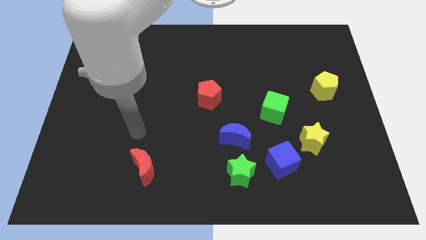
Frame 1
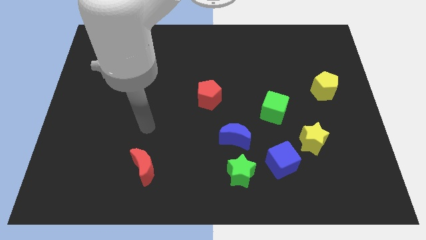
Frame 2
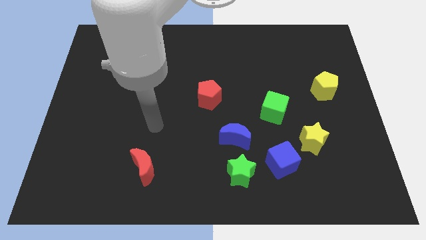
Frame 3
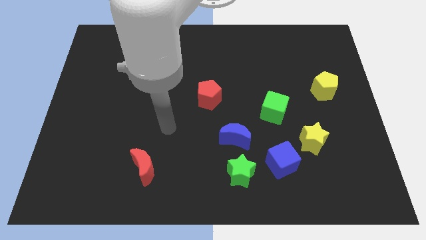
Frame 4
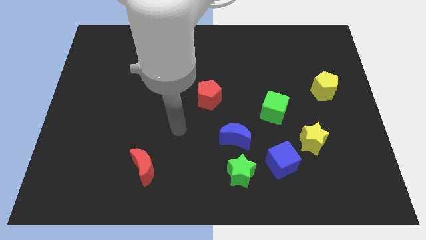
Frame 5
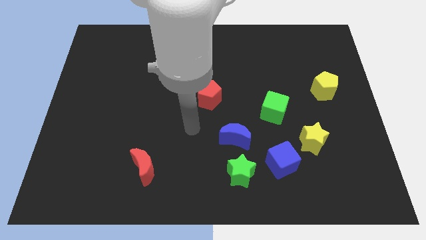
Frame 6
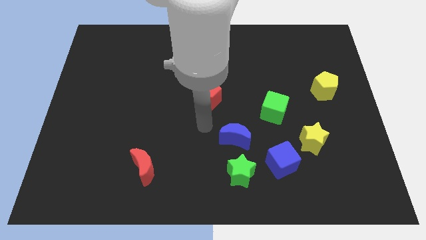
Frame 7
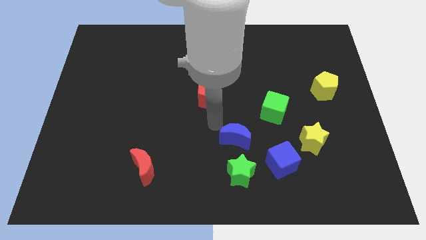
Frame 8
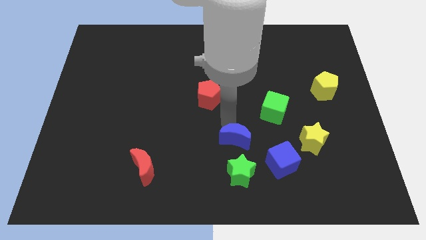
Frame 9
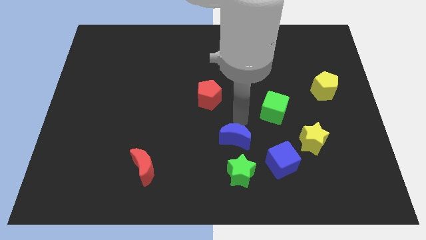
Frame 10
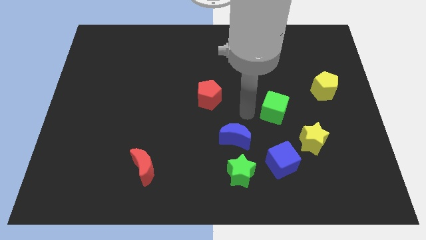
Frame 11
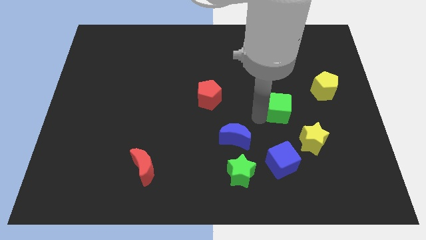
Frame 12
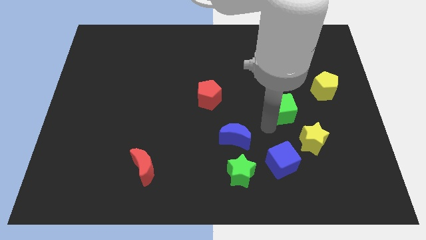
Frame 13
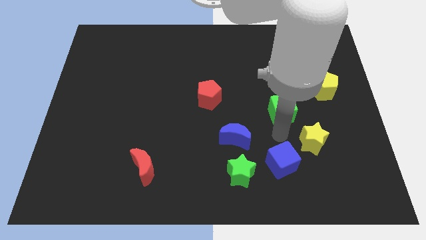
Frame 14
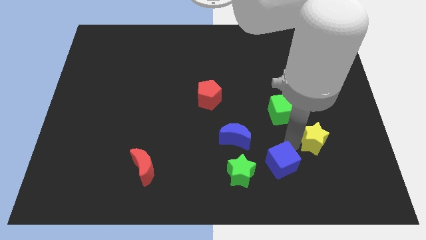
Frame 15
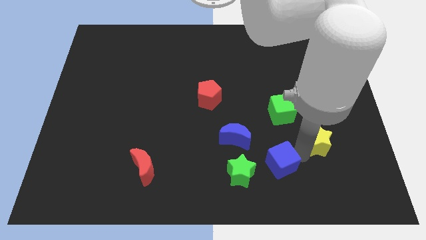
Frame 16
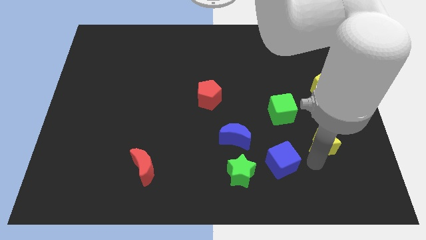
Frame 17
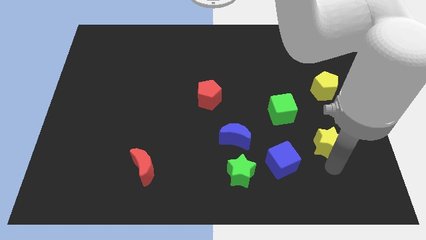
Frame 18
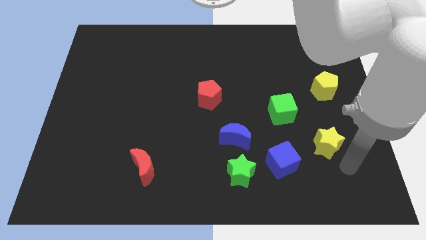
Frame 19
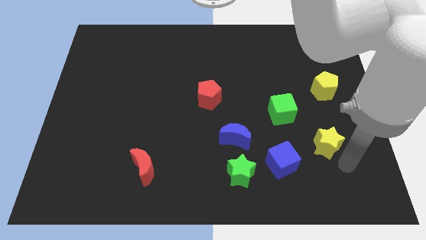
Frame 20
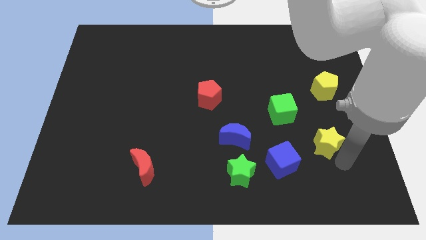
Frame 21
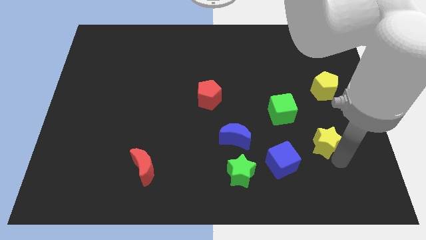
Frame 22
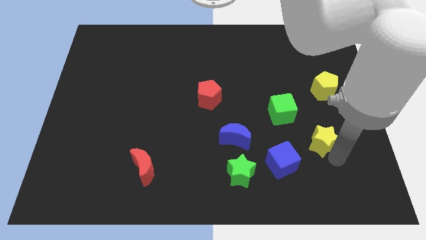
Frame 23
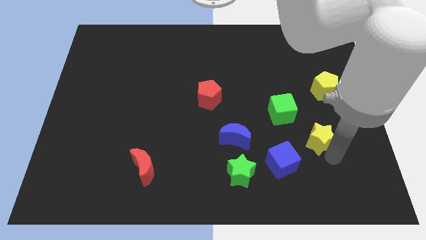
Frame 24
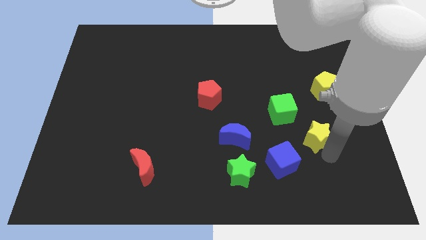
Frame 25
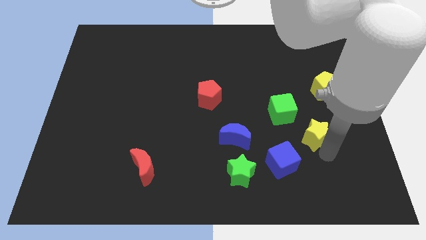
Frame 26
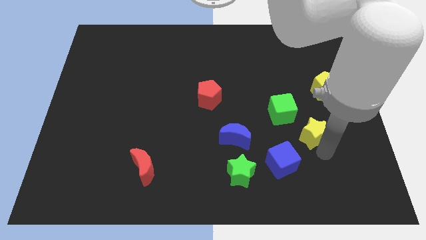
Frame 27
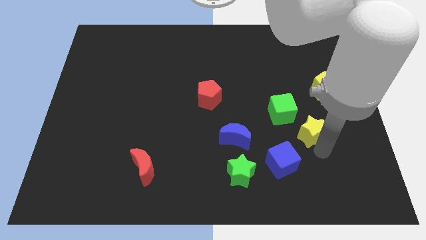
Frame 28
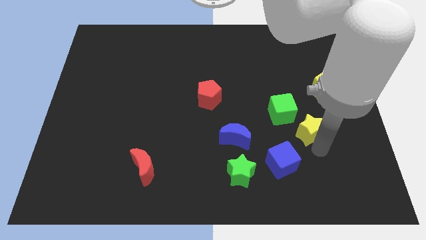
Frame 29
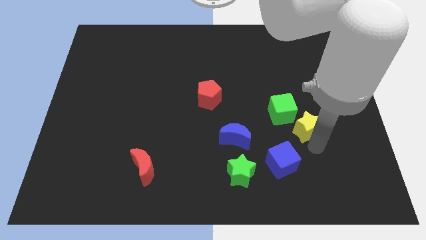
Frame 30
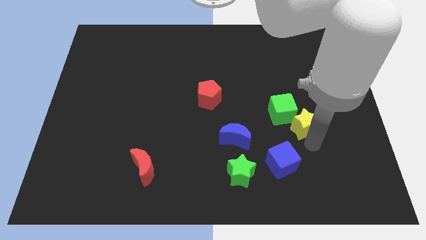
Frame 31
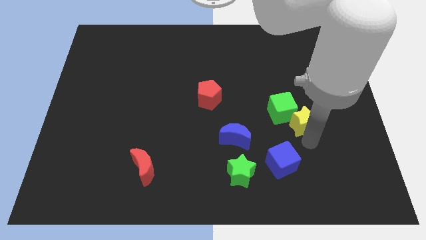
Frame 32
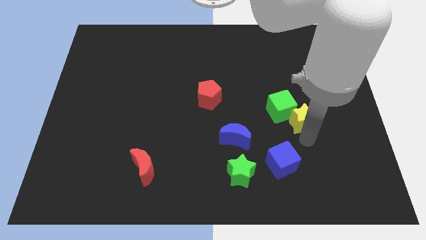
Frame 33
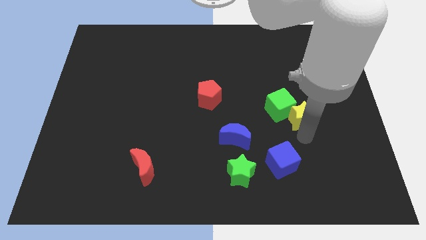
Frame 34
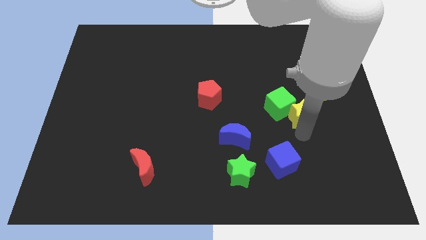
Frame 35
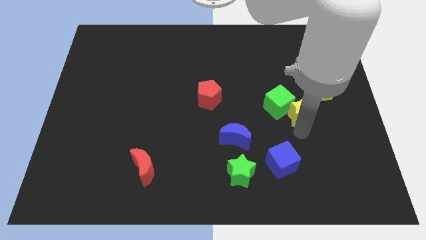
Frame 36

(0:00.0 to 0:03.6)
push the yellow star up slightly

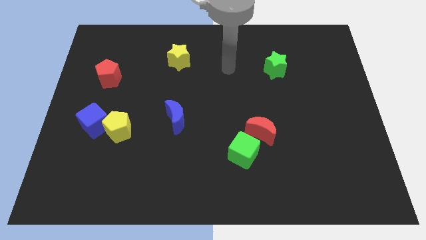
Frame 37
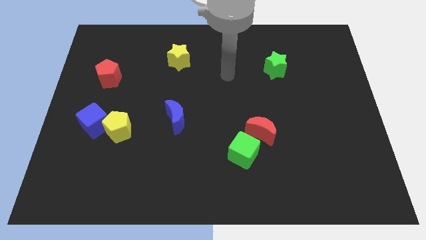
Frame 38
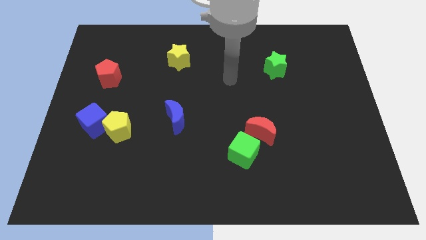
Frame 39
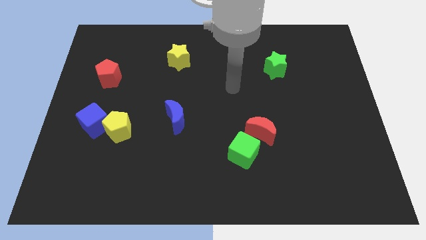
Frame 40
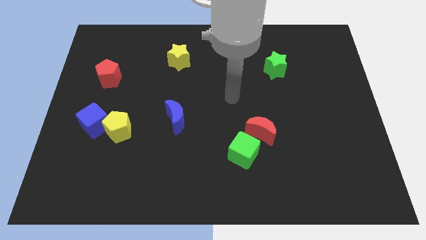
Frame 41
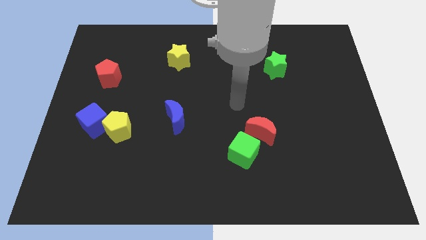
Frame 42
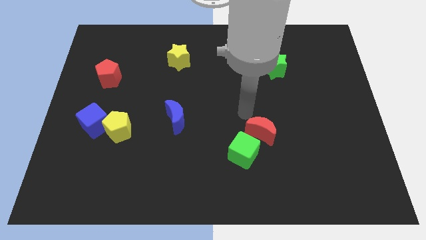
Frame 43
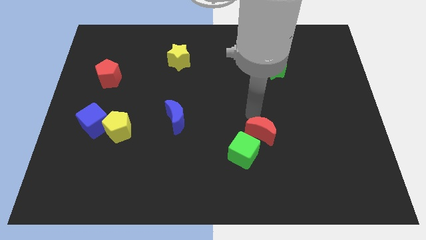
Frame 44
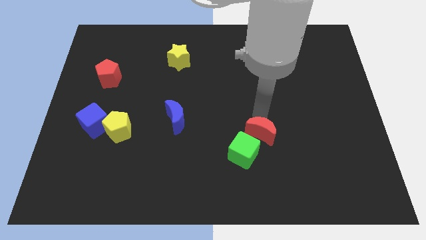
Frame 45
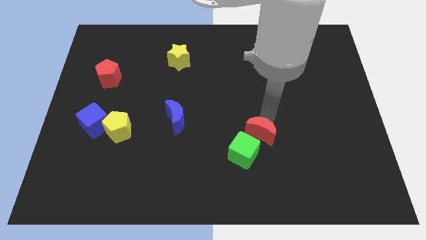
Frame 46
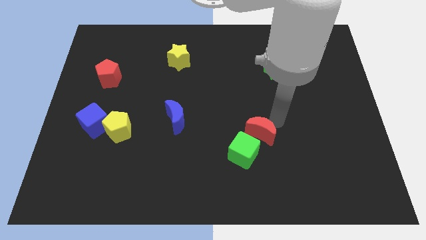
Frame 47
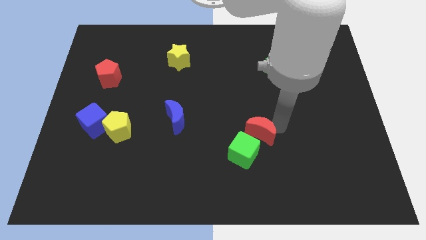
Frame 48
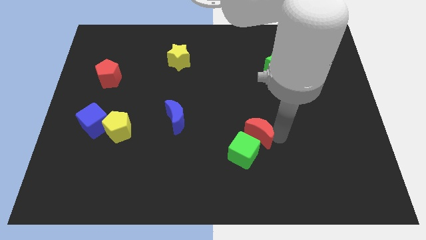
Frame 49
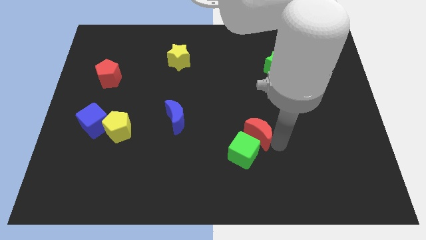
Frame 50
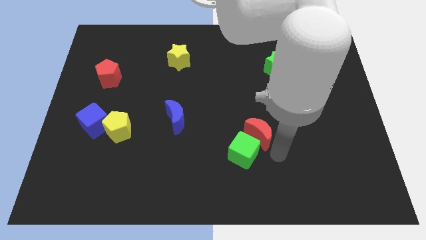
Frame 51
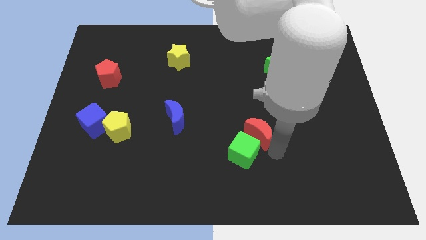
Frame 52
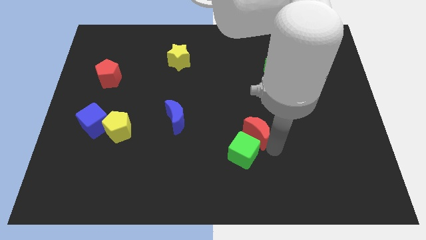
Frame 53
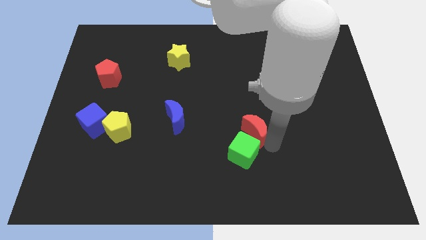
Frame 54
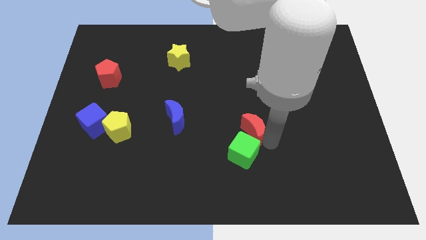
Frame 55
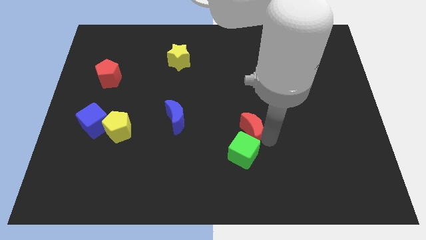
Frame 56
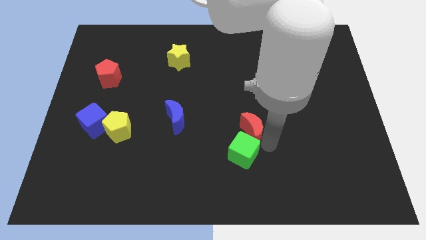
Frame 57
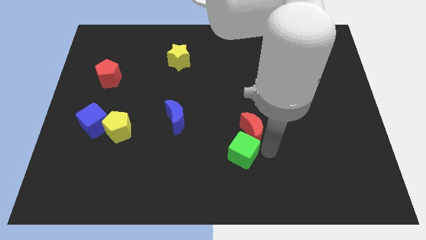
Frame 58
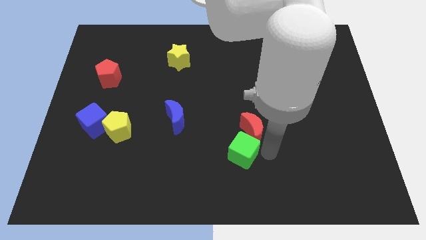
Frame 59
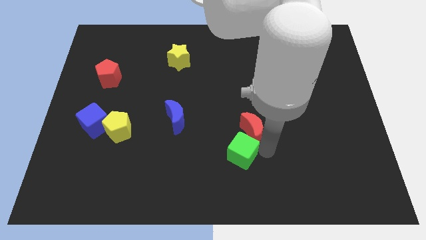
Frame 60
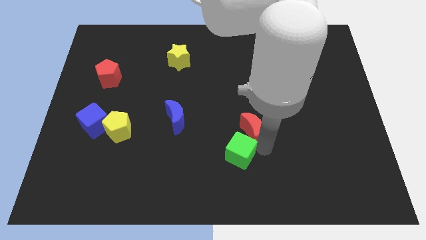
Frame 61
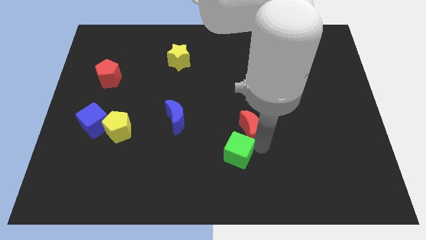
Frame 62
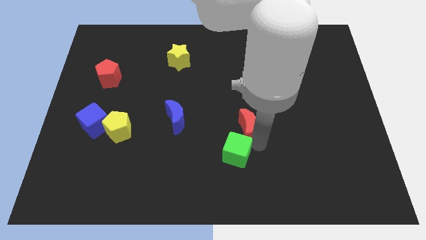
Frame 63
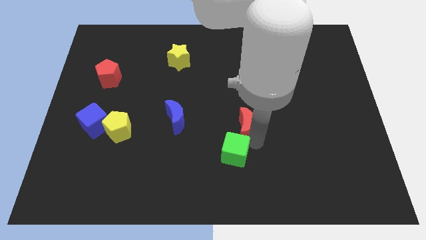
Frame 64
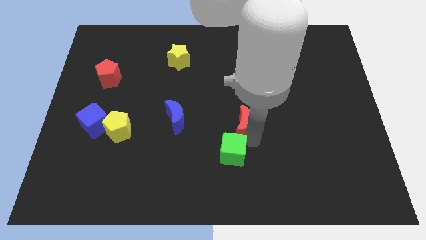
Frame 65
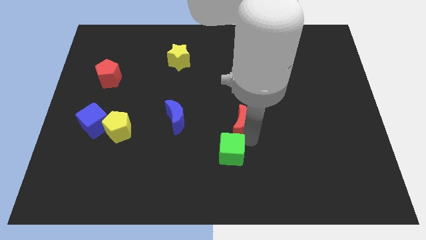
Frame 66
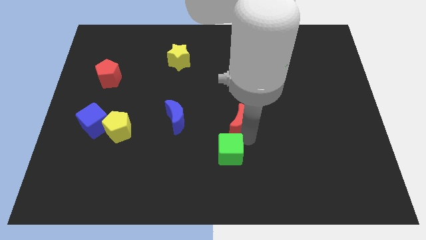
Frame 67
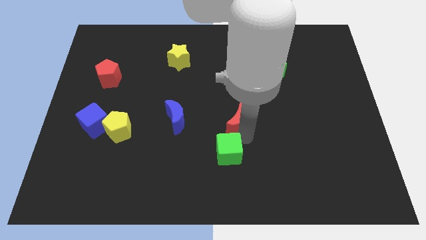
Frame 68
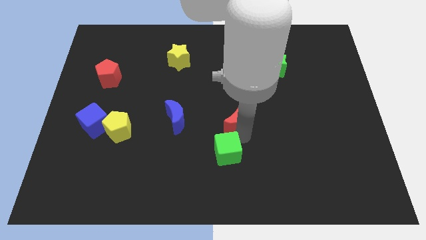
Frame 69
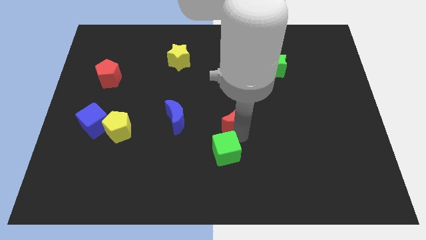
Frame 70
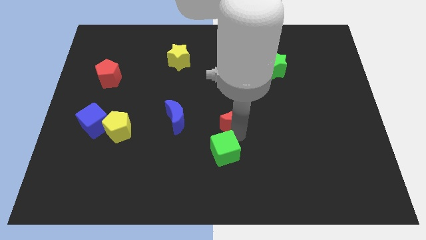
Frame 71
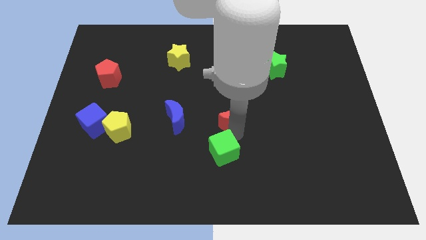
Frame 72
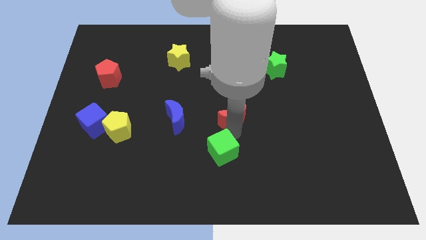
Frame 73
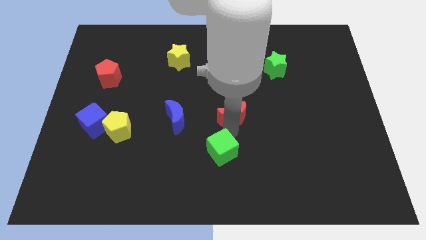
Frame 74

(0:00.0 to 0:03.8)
move the red moon a little bit upwards and to the left

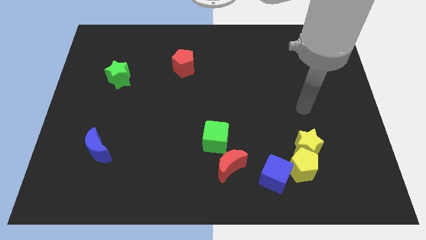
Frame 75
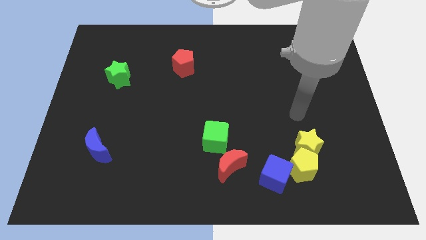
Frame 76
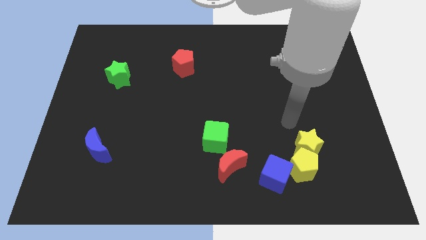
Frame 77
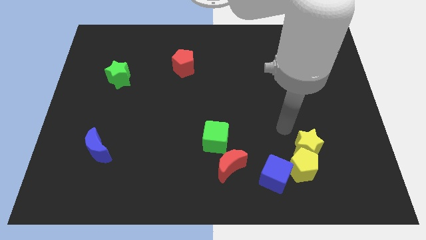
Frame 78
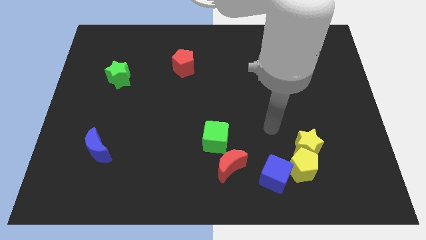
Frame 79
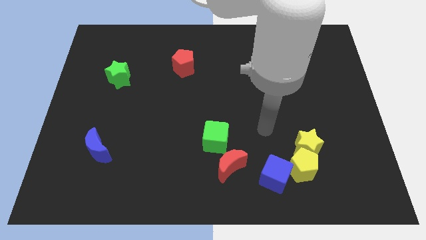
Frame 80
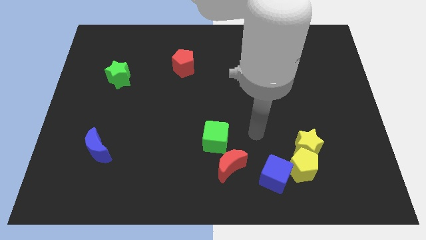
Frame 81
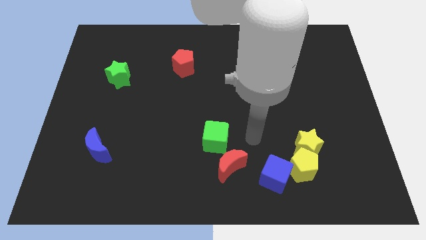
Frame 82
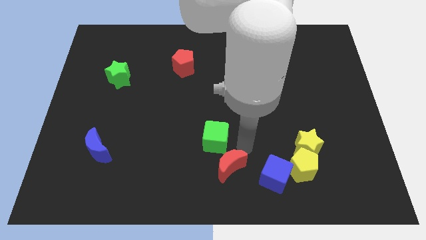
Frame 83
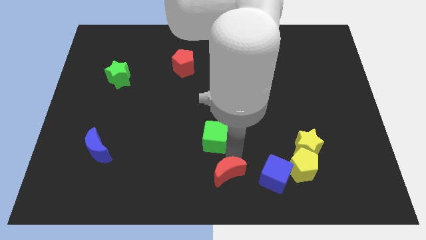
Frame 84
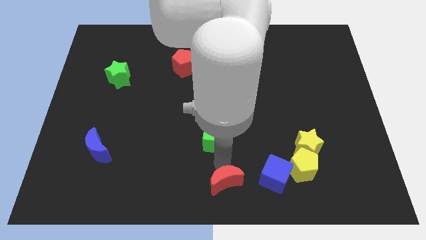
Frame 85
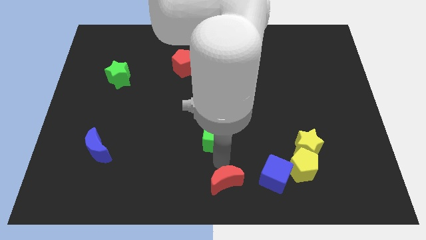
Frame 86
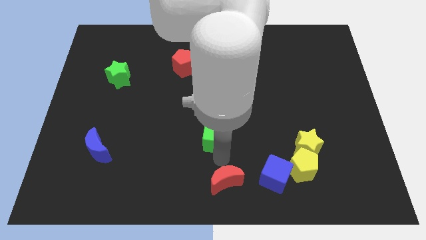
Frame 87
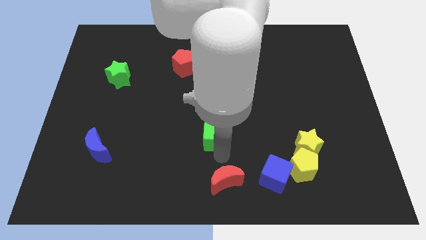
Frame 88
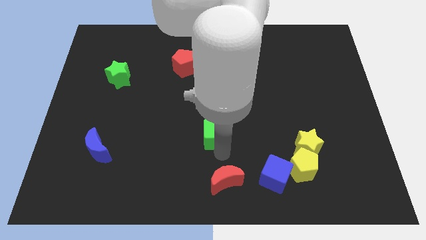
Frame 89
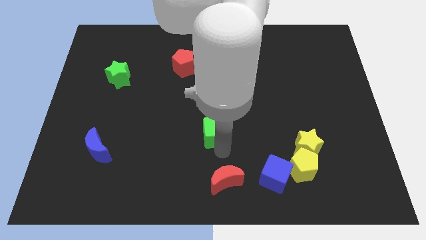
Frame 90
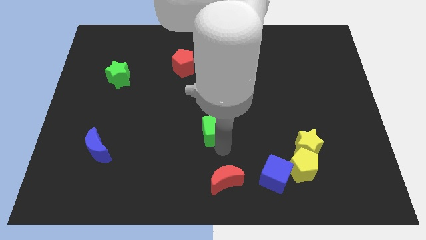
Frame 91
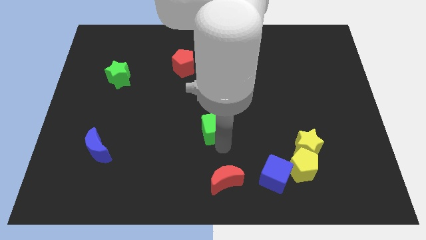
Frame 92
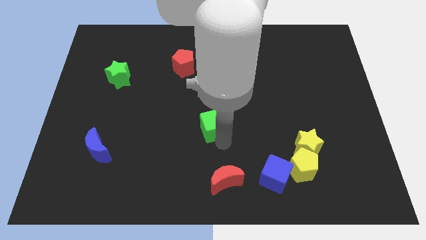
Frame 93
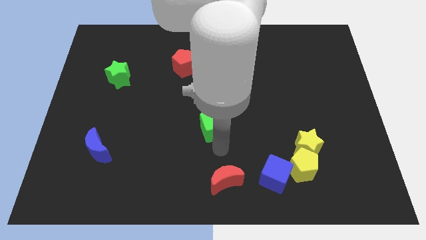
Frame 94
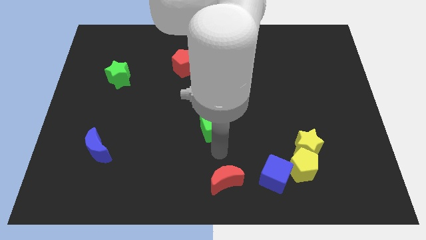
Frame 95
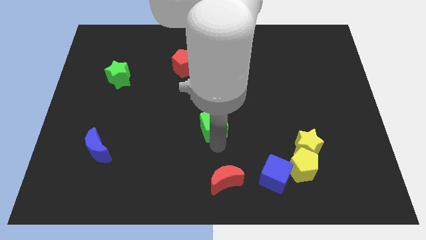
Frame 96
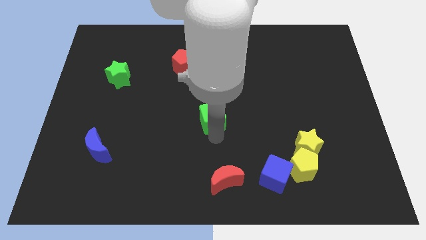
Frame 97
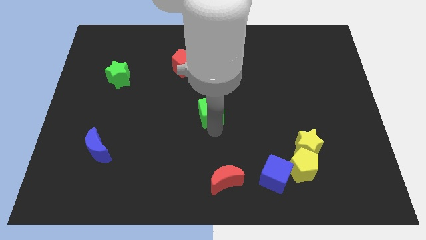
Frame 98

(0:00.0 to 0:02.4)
slightly slide the green cube up
